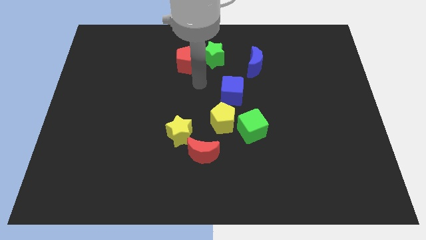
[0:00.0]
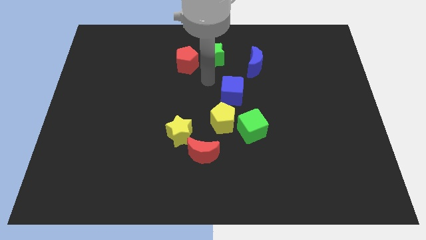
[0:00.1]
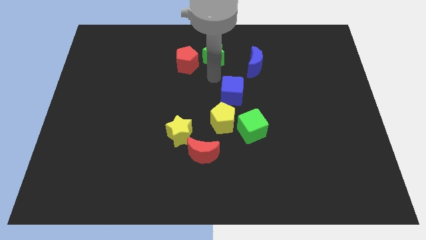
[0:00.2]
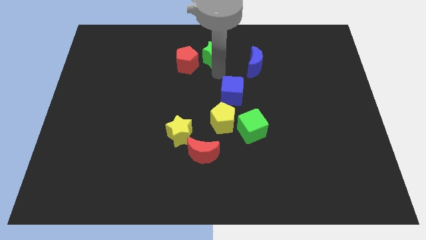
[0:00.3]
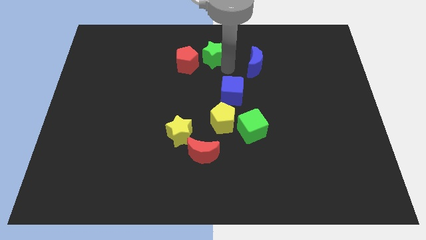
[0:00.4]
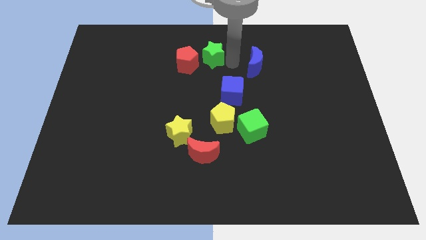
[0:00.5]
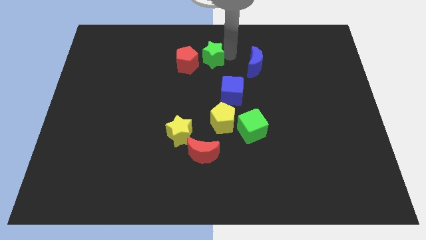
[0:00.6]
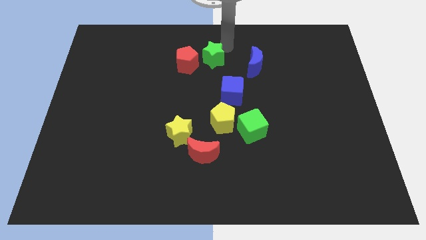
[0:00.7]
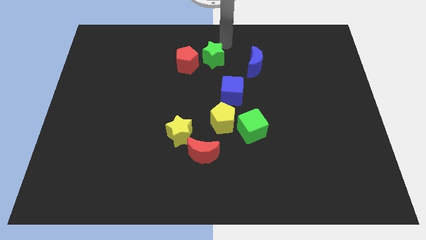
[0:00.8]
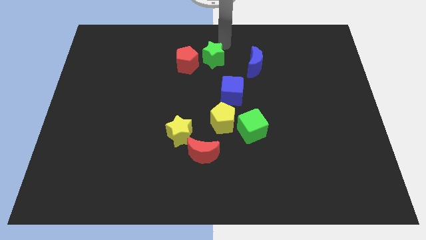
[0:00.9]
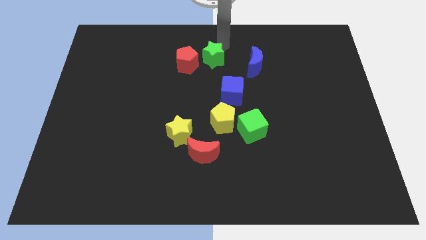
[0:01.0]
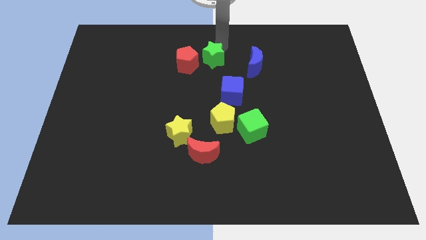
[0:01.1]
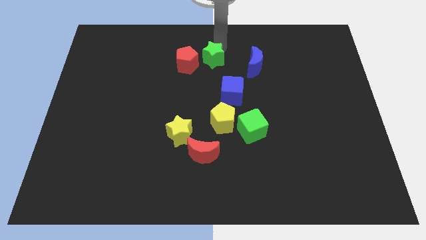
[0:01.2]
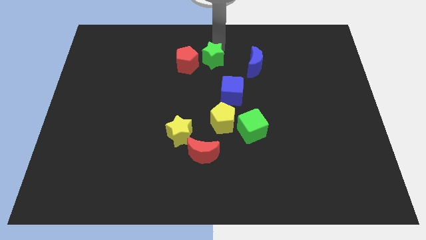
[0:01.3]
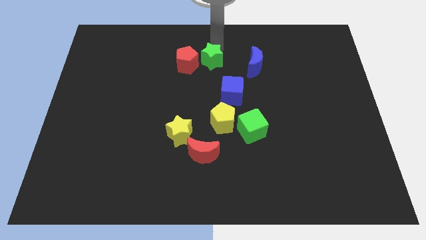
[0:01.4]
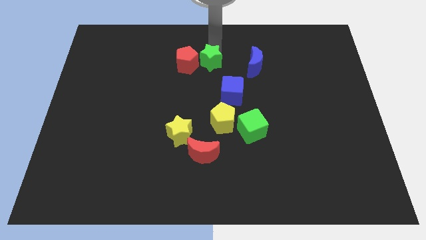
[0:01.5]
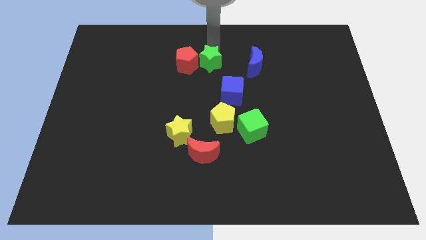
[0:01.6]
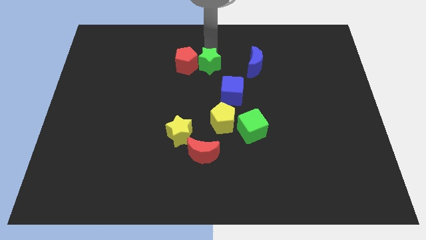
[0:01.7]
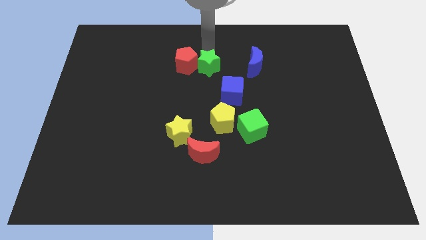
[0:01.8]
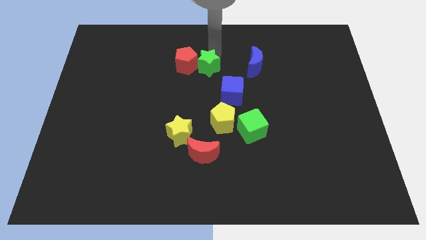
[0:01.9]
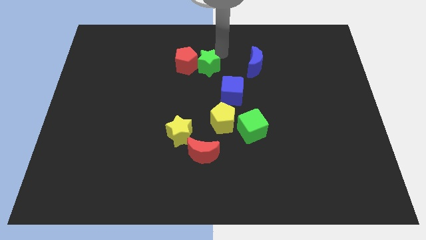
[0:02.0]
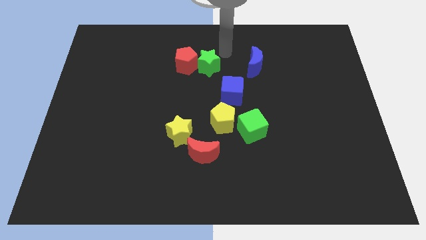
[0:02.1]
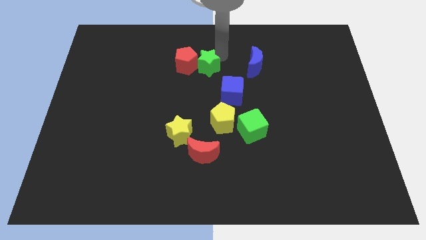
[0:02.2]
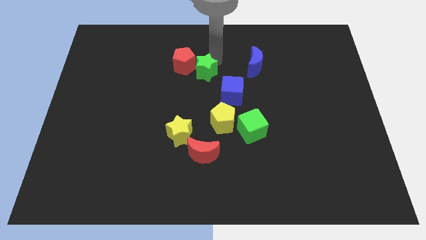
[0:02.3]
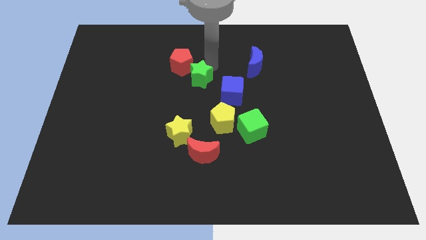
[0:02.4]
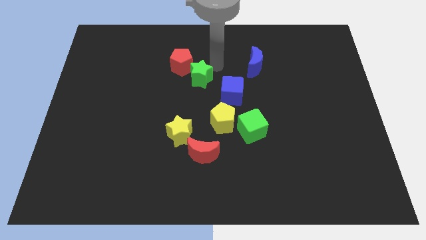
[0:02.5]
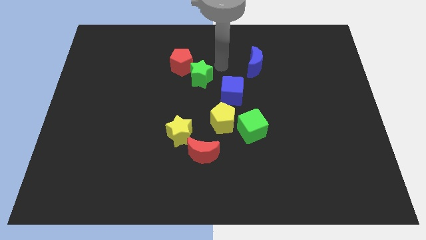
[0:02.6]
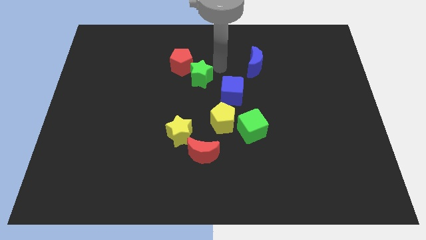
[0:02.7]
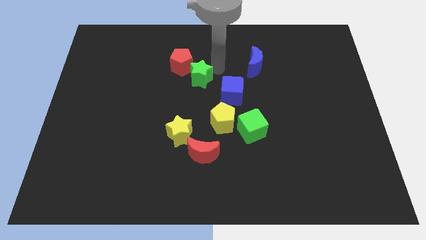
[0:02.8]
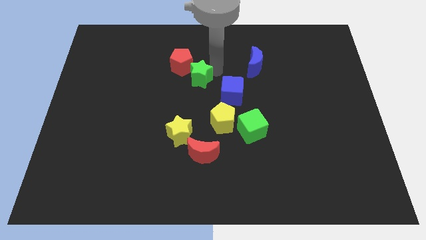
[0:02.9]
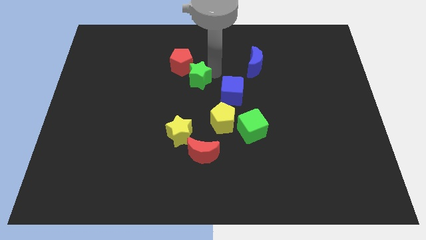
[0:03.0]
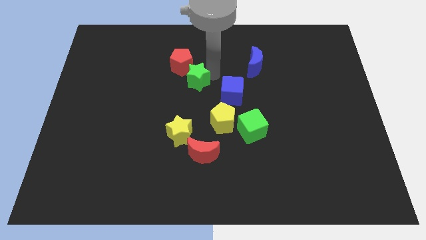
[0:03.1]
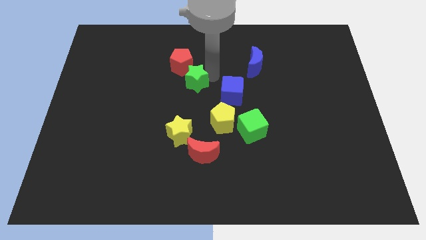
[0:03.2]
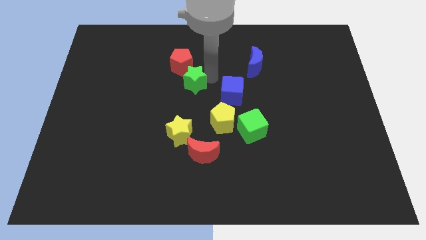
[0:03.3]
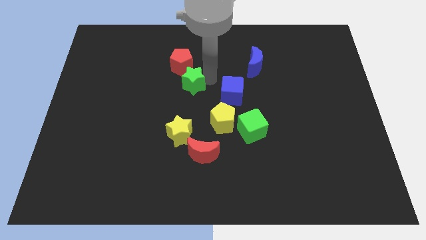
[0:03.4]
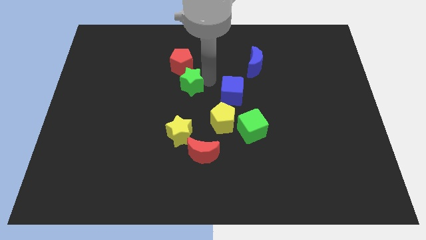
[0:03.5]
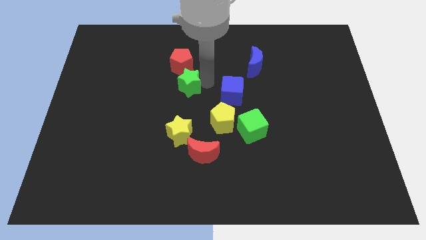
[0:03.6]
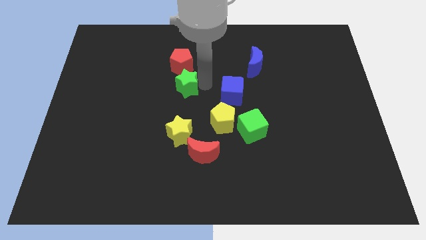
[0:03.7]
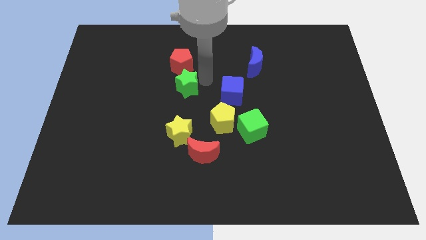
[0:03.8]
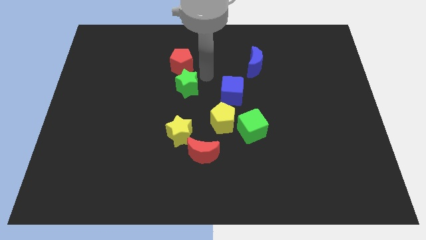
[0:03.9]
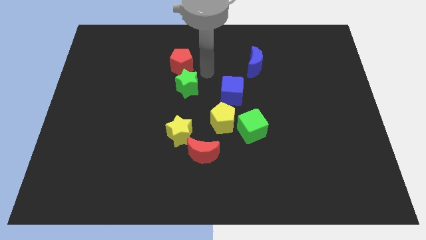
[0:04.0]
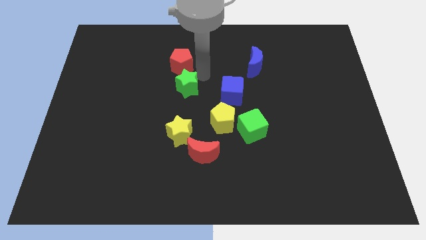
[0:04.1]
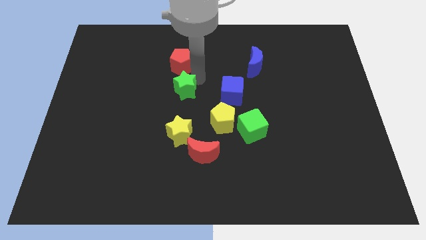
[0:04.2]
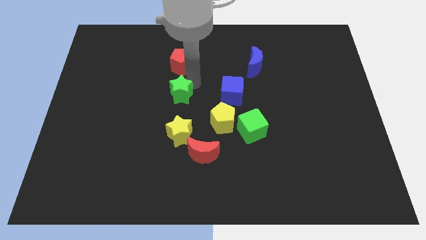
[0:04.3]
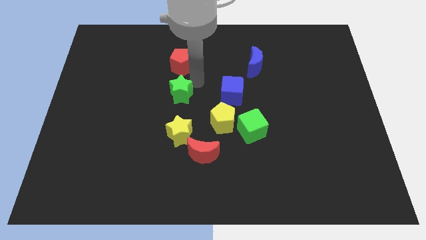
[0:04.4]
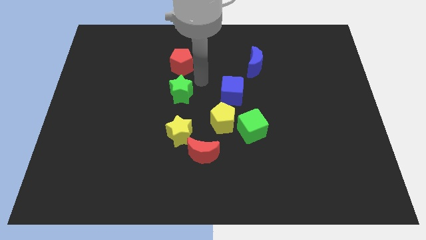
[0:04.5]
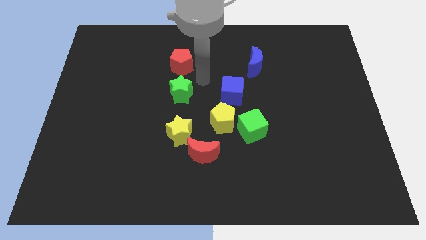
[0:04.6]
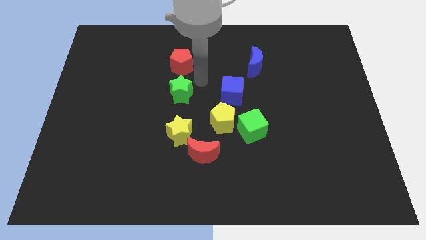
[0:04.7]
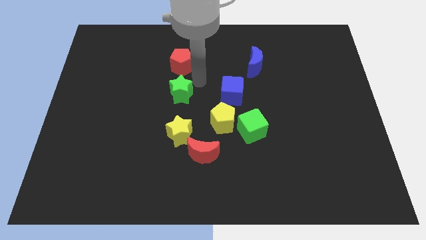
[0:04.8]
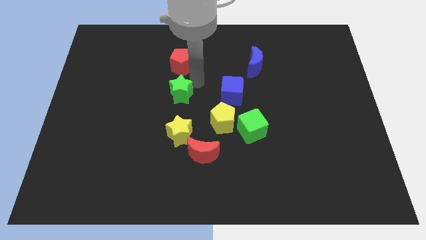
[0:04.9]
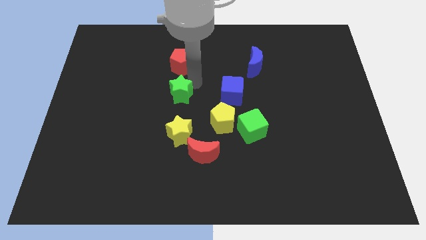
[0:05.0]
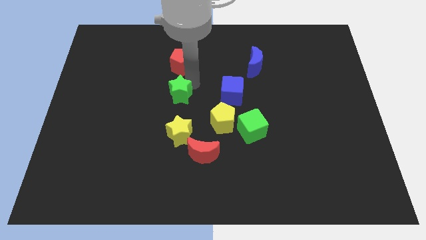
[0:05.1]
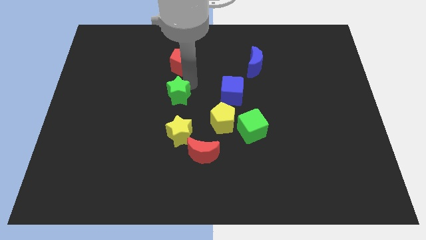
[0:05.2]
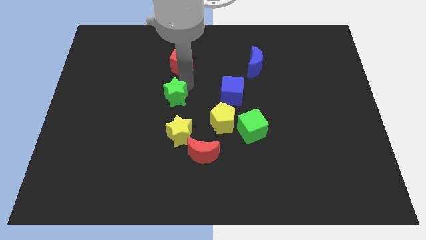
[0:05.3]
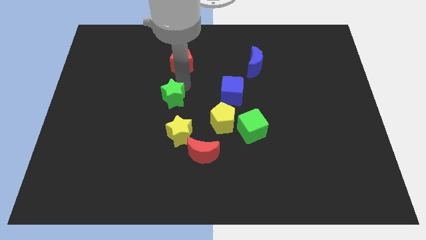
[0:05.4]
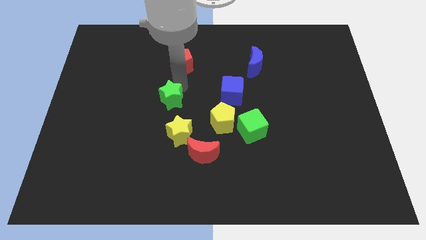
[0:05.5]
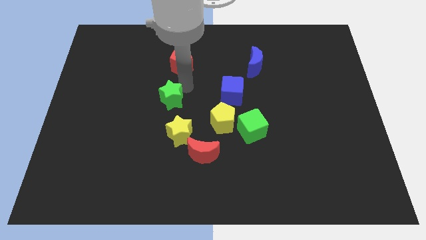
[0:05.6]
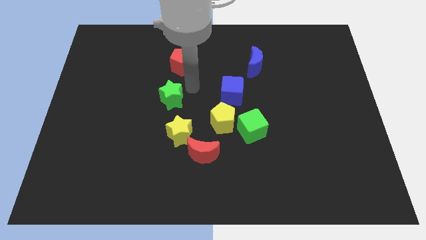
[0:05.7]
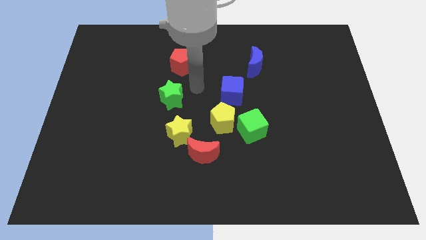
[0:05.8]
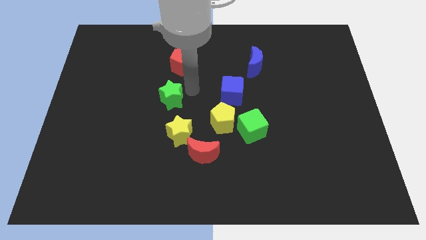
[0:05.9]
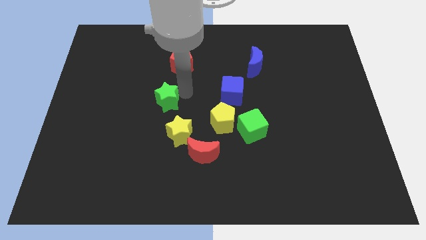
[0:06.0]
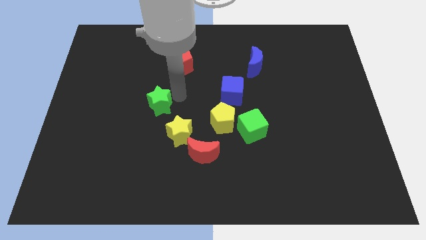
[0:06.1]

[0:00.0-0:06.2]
move the green star down and to the left diagonally

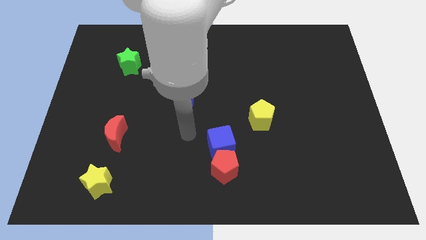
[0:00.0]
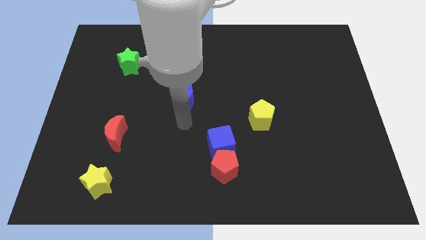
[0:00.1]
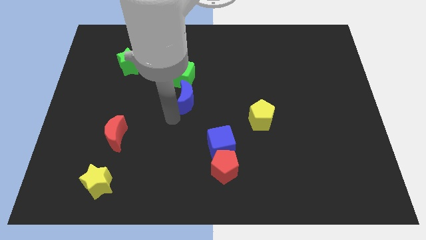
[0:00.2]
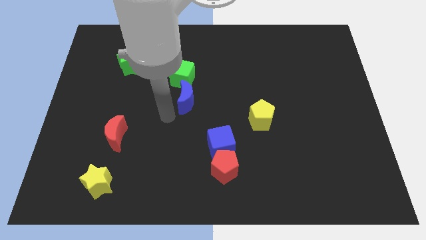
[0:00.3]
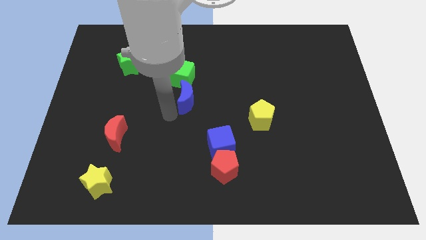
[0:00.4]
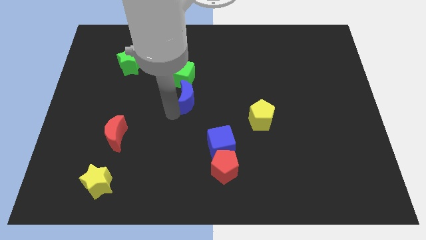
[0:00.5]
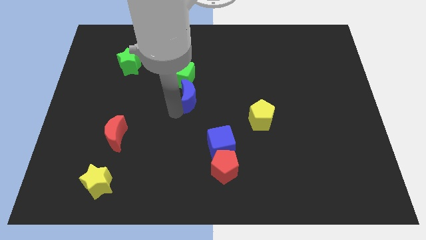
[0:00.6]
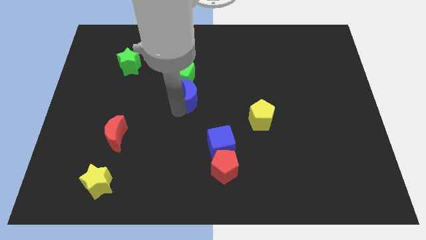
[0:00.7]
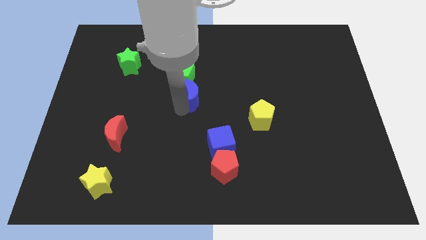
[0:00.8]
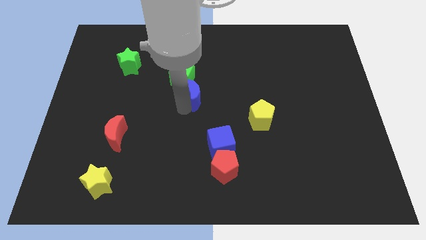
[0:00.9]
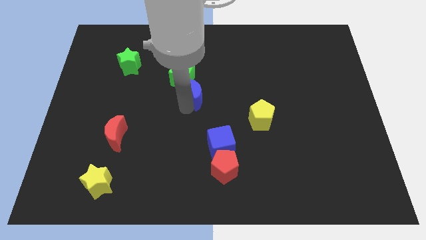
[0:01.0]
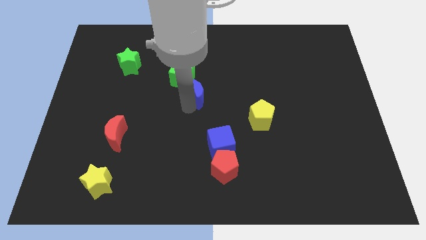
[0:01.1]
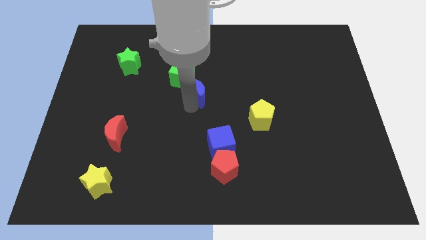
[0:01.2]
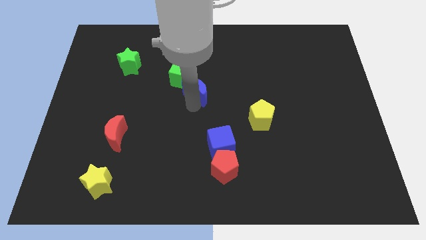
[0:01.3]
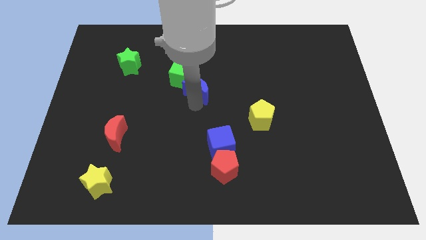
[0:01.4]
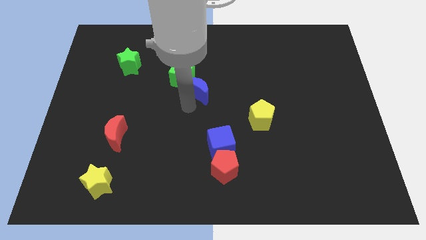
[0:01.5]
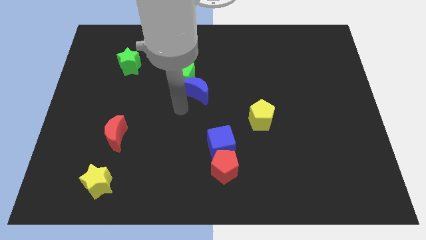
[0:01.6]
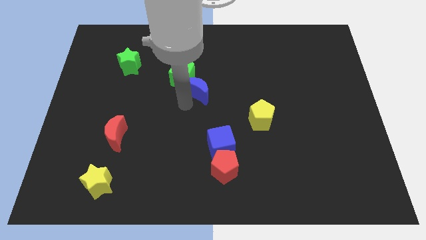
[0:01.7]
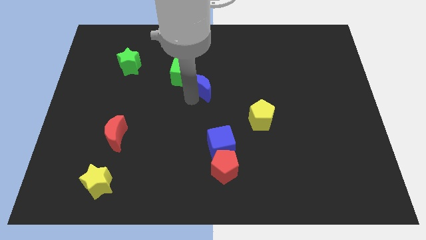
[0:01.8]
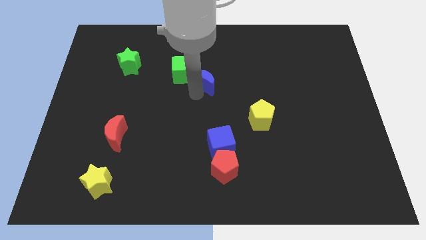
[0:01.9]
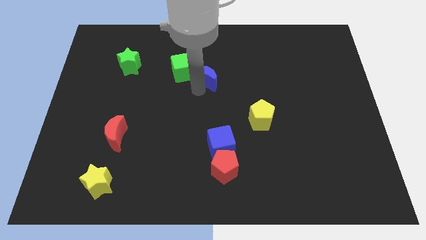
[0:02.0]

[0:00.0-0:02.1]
move the blue moon slightly diagonally up and to the right
